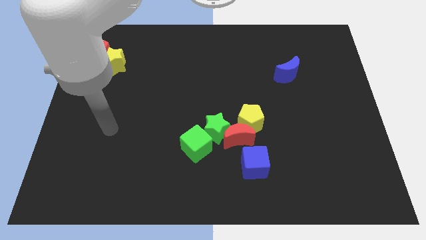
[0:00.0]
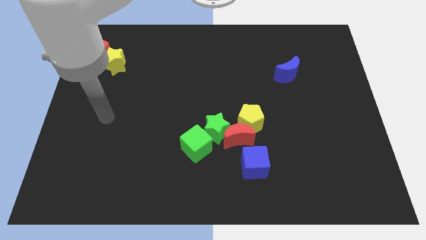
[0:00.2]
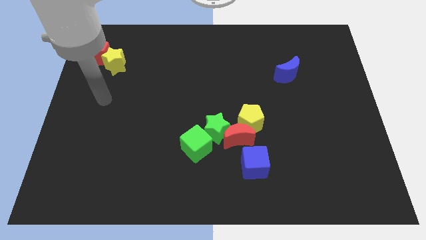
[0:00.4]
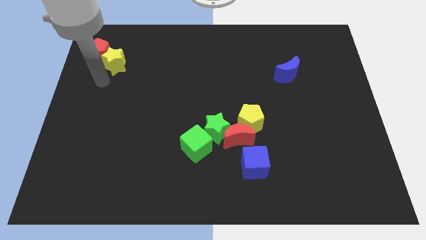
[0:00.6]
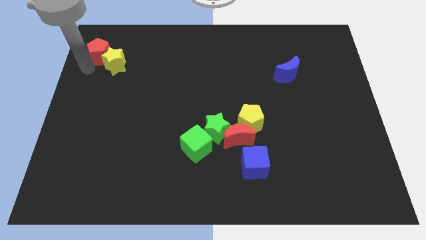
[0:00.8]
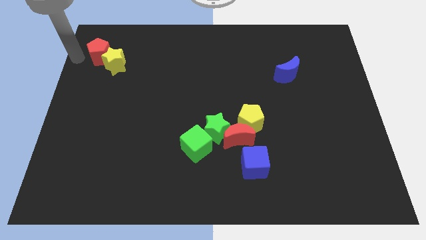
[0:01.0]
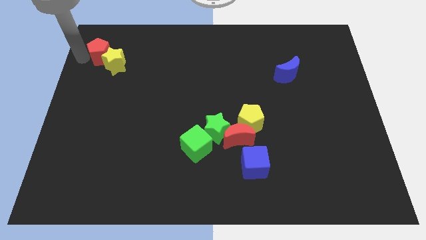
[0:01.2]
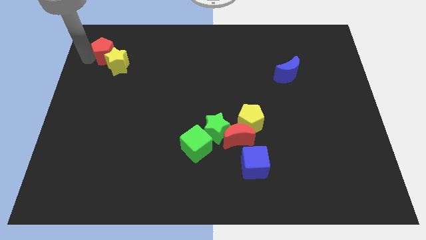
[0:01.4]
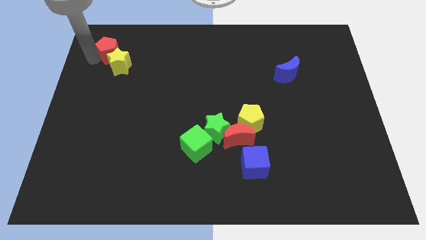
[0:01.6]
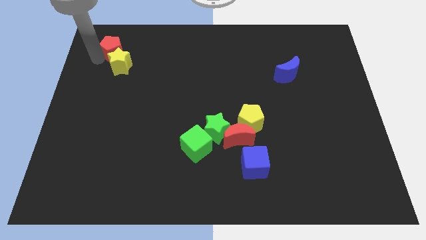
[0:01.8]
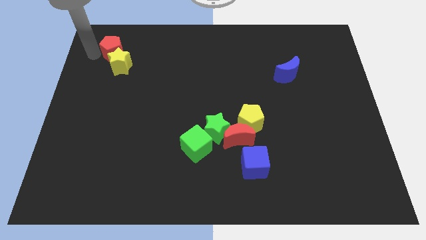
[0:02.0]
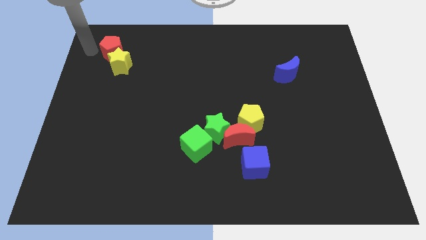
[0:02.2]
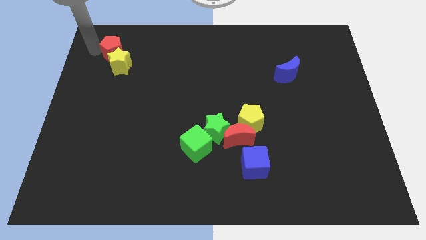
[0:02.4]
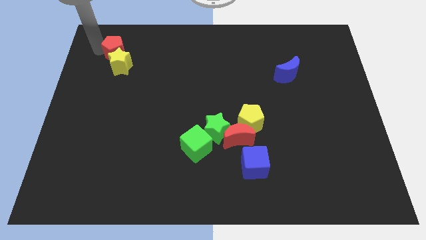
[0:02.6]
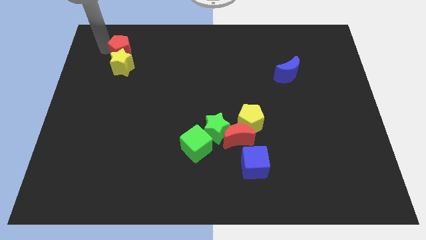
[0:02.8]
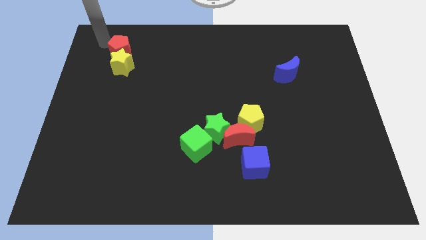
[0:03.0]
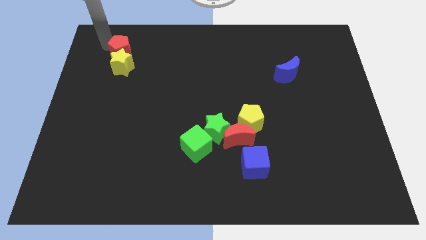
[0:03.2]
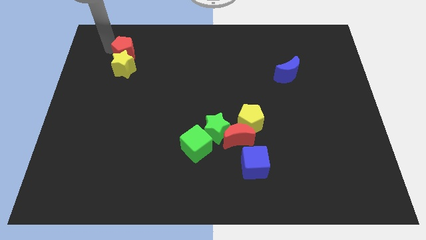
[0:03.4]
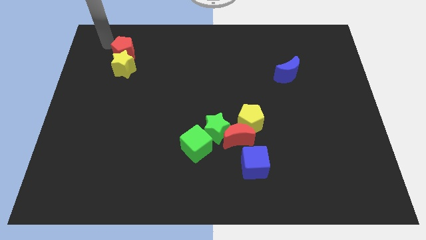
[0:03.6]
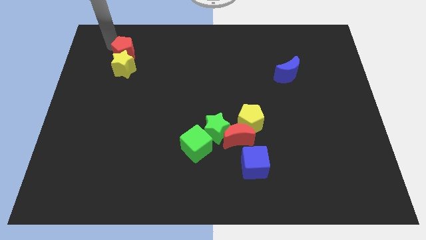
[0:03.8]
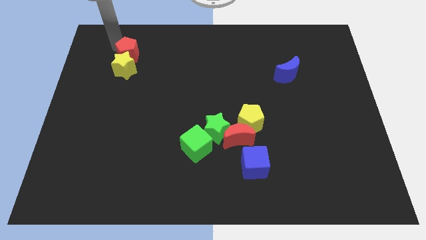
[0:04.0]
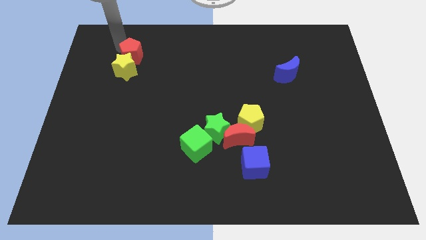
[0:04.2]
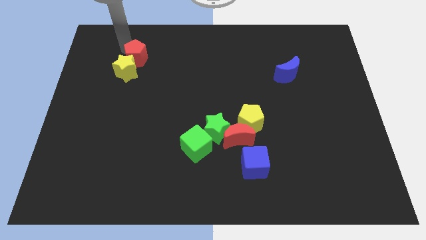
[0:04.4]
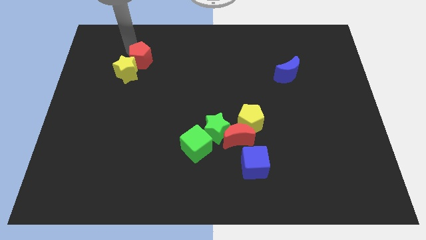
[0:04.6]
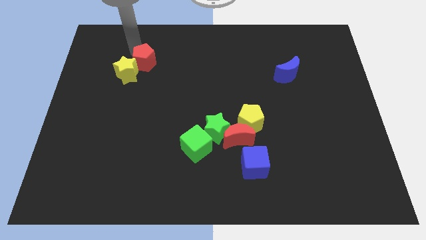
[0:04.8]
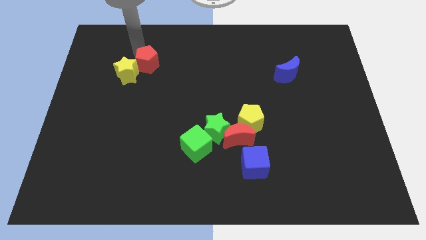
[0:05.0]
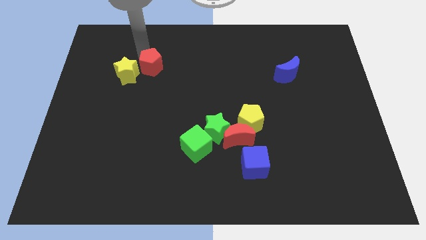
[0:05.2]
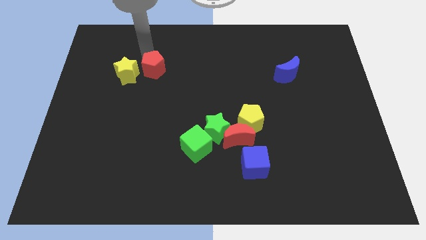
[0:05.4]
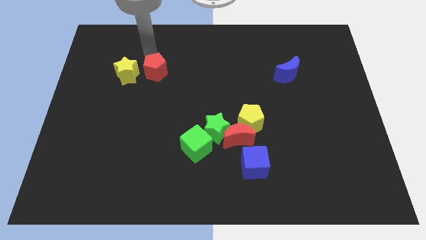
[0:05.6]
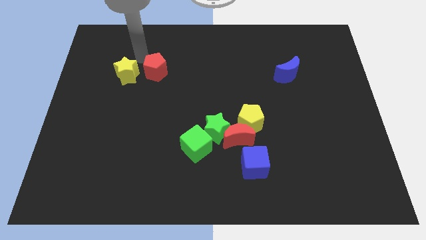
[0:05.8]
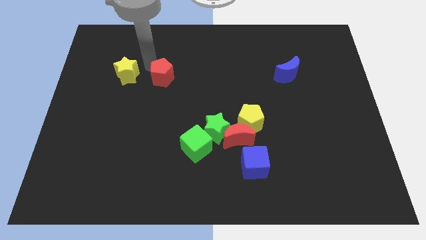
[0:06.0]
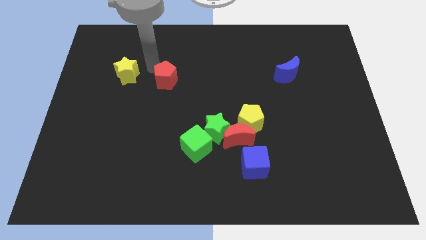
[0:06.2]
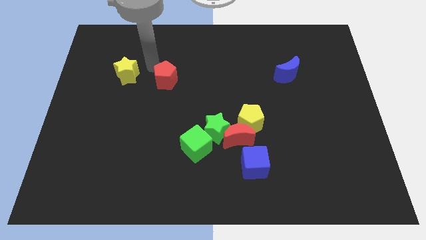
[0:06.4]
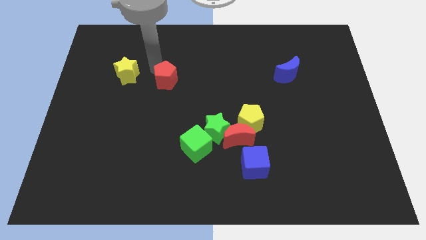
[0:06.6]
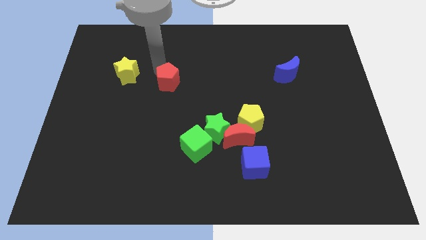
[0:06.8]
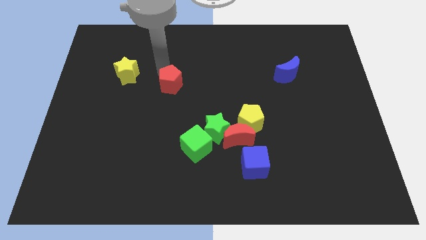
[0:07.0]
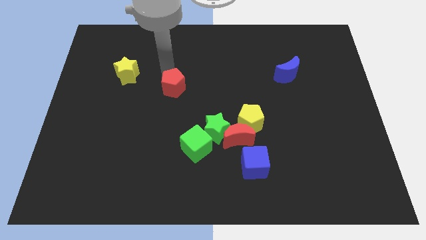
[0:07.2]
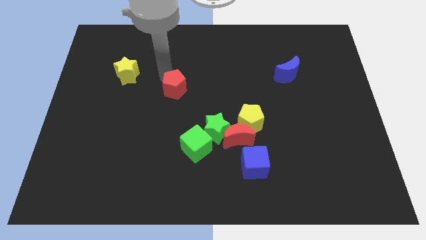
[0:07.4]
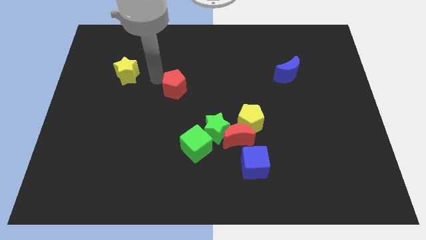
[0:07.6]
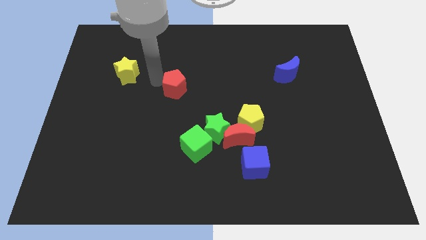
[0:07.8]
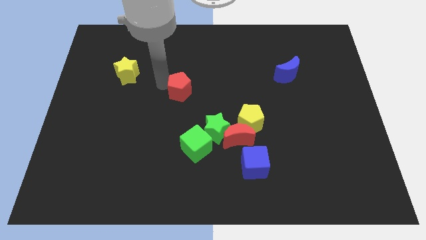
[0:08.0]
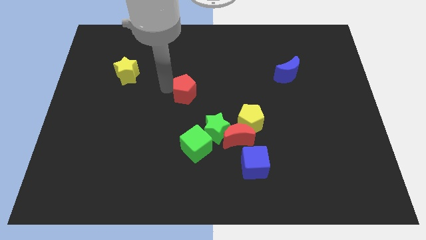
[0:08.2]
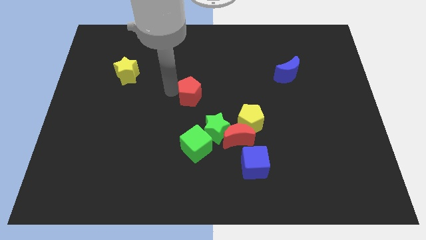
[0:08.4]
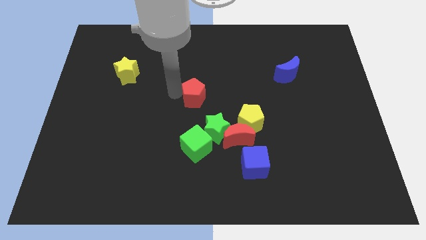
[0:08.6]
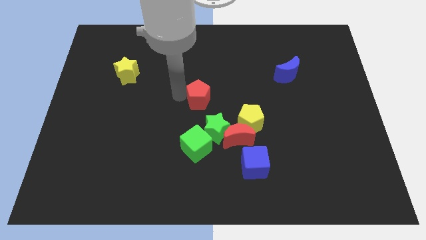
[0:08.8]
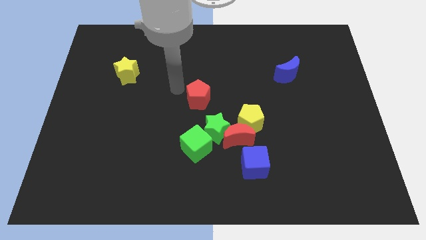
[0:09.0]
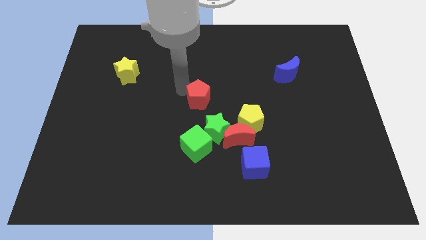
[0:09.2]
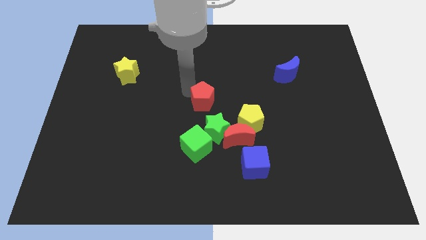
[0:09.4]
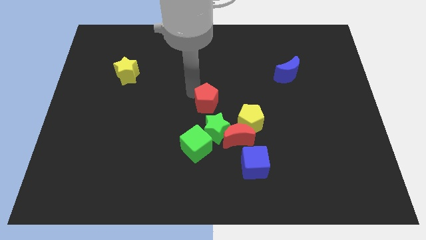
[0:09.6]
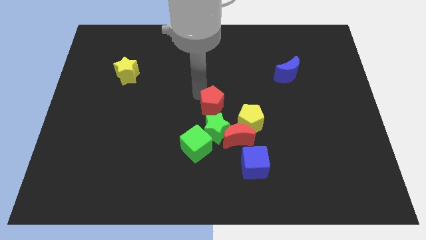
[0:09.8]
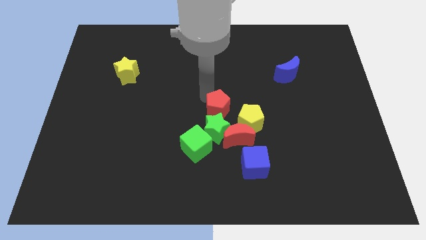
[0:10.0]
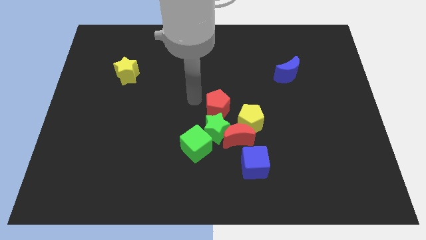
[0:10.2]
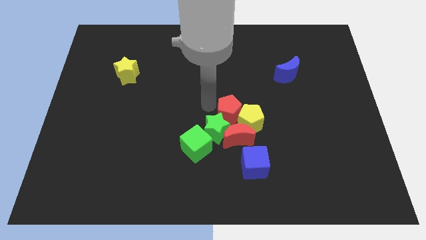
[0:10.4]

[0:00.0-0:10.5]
put the red pentagon close to the yellow pentagon

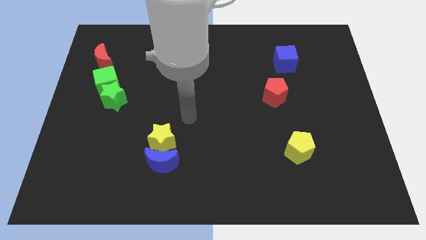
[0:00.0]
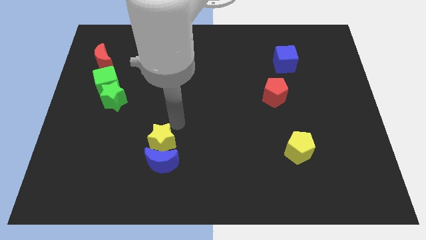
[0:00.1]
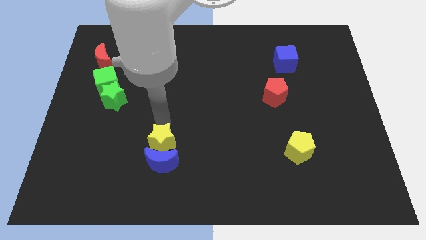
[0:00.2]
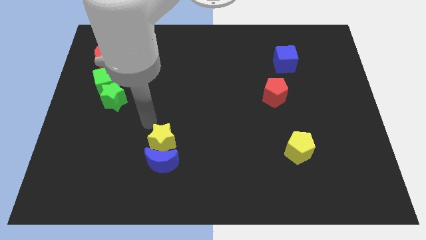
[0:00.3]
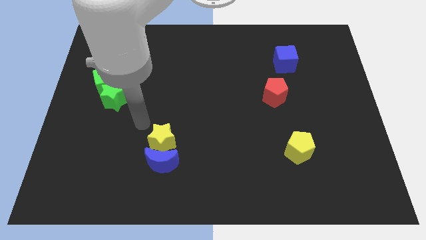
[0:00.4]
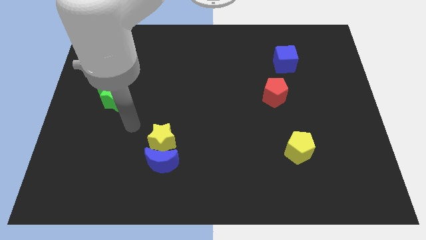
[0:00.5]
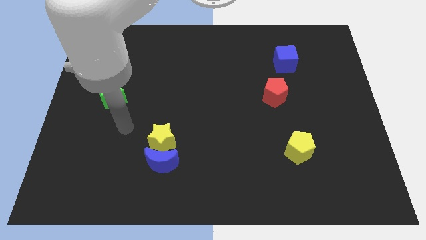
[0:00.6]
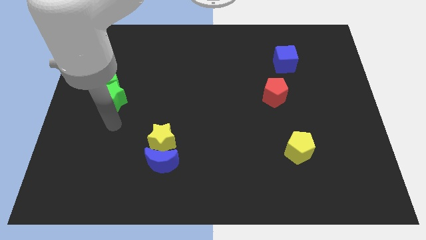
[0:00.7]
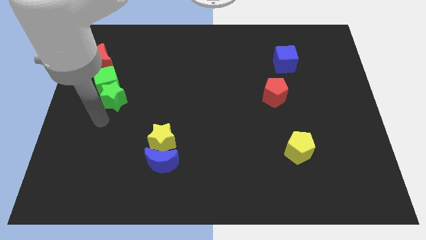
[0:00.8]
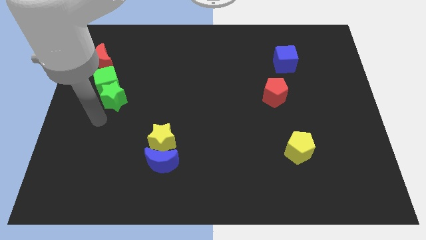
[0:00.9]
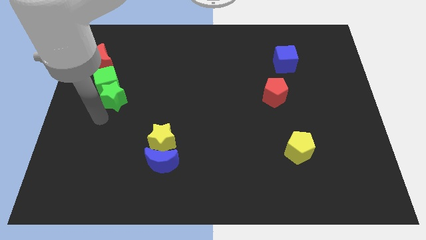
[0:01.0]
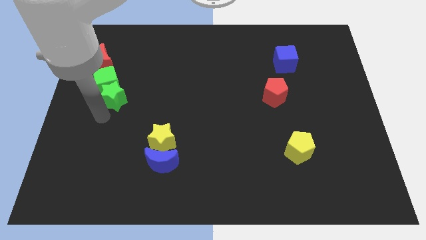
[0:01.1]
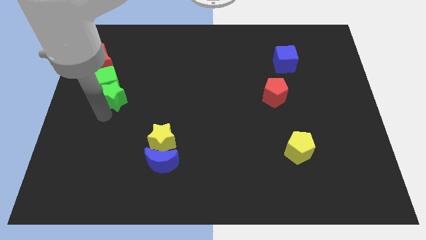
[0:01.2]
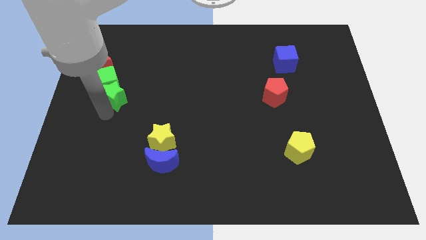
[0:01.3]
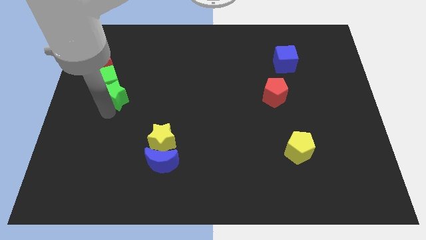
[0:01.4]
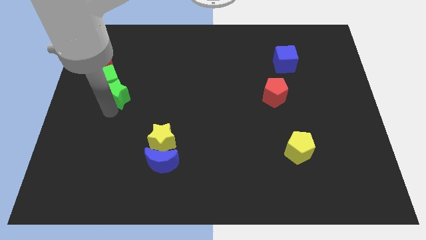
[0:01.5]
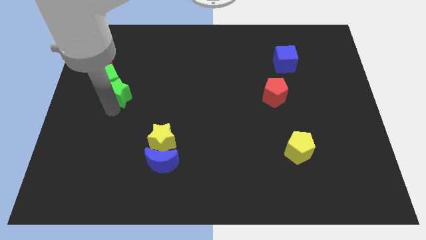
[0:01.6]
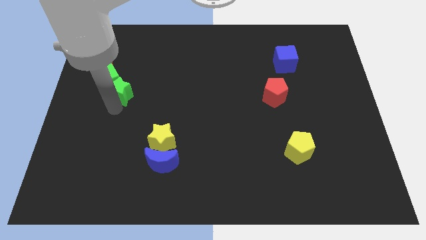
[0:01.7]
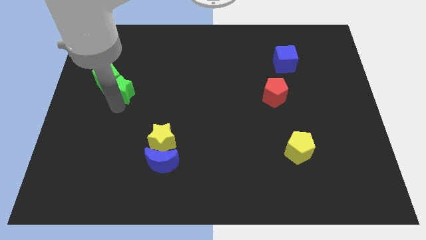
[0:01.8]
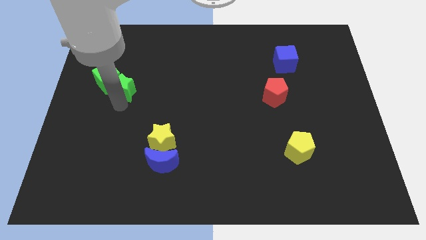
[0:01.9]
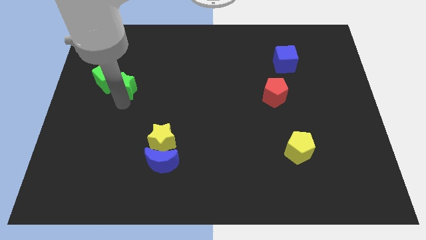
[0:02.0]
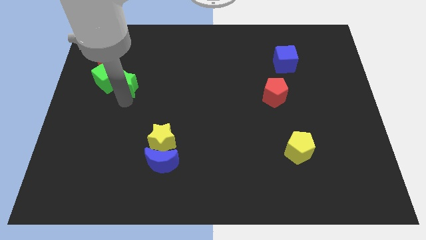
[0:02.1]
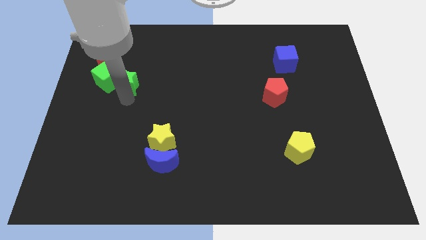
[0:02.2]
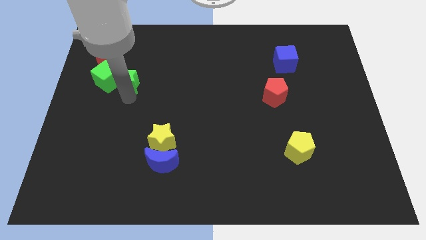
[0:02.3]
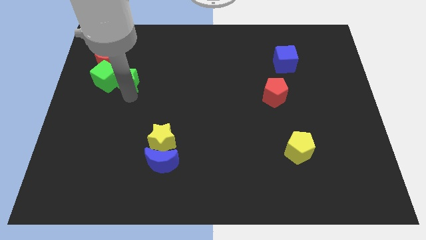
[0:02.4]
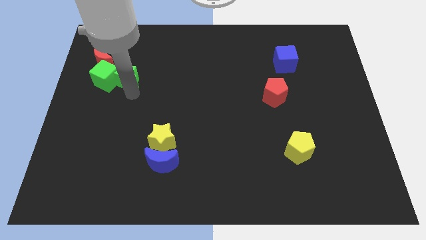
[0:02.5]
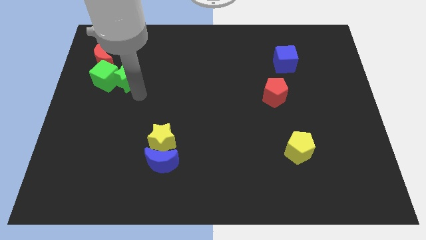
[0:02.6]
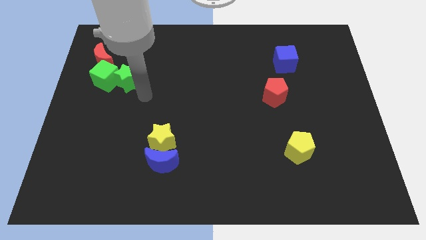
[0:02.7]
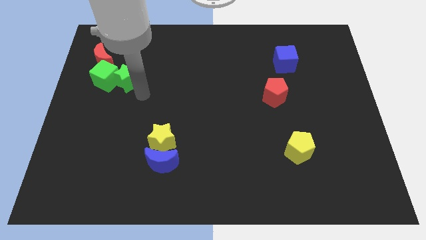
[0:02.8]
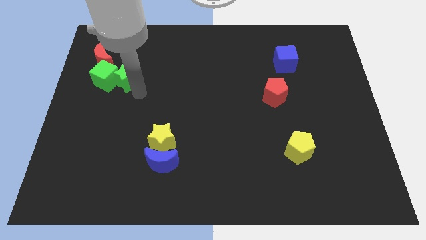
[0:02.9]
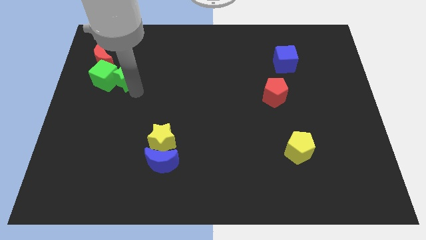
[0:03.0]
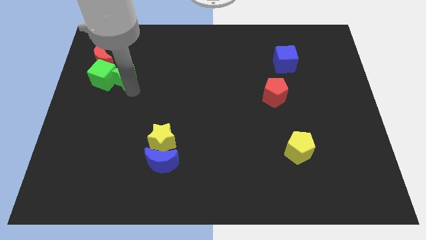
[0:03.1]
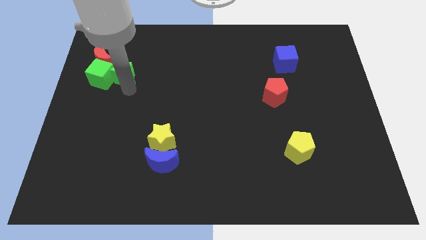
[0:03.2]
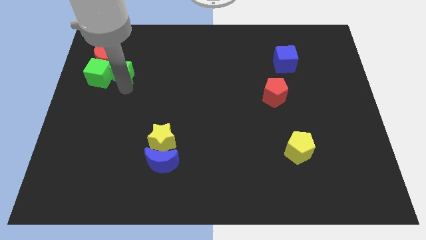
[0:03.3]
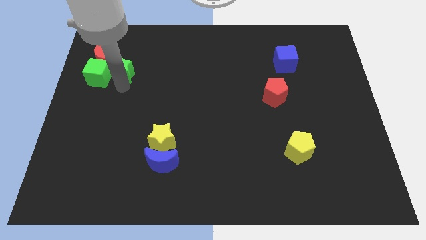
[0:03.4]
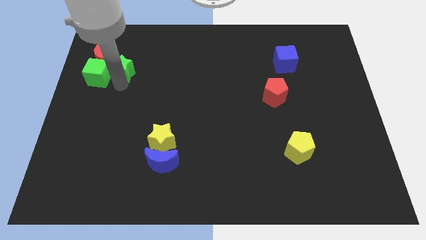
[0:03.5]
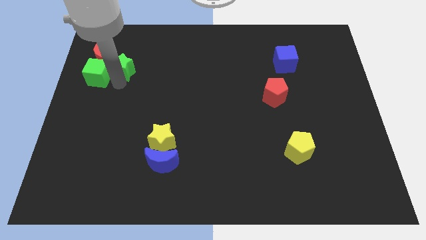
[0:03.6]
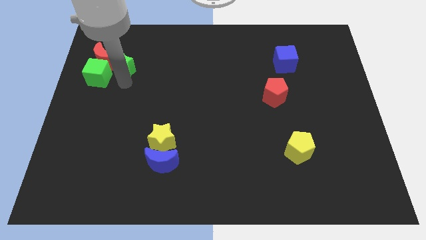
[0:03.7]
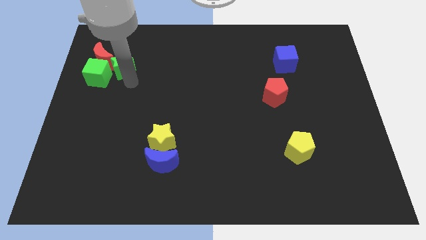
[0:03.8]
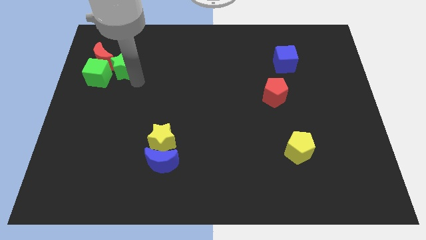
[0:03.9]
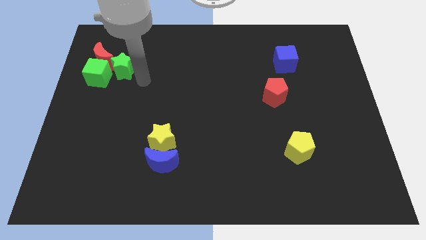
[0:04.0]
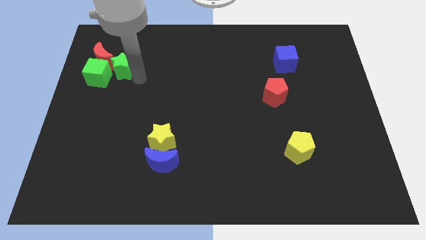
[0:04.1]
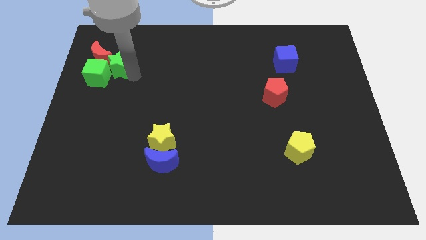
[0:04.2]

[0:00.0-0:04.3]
put the green star next to the red moon
